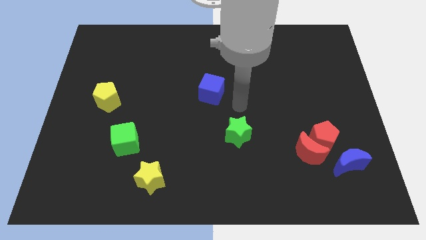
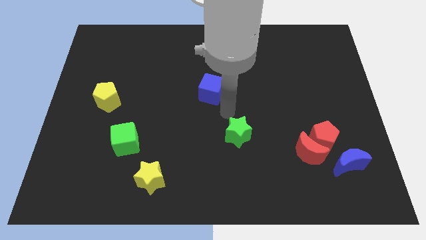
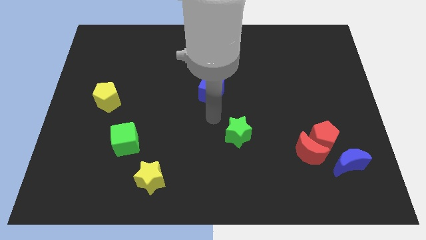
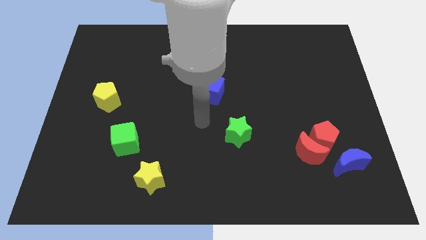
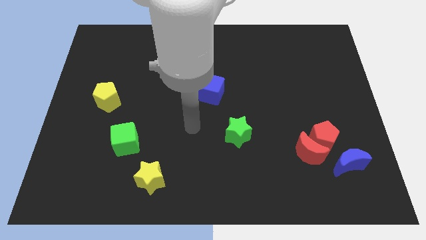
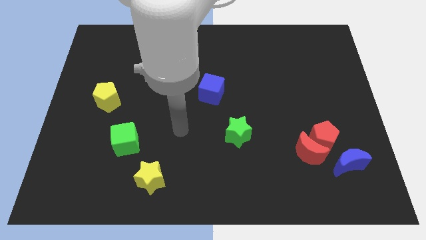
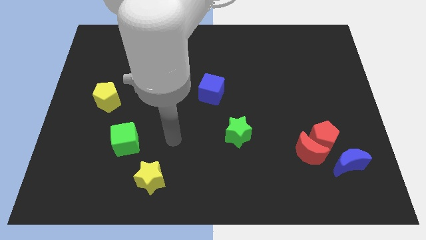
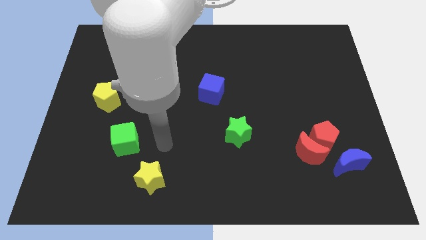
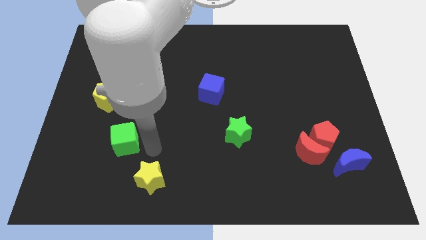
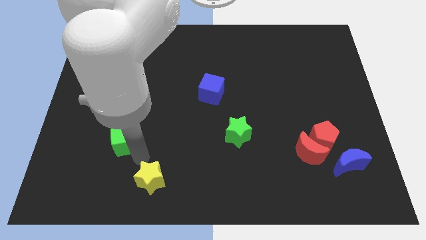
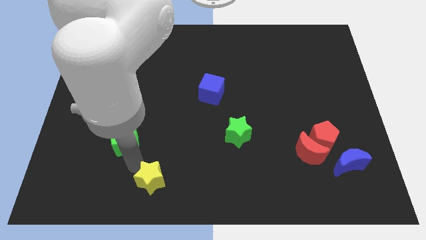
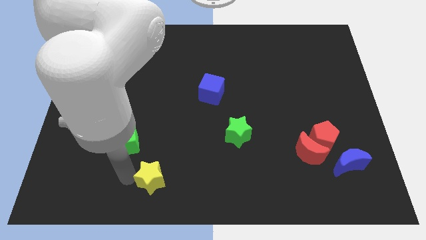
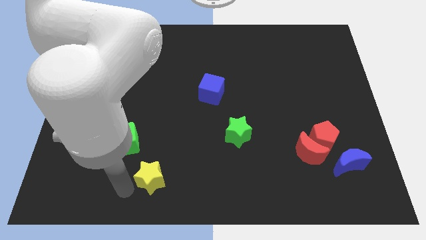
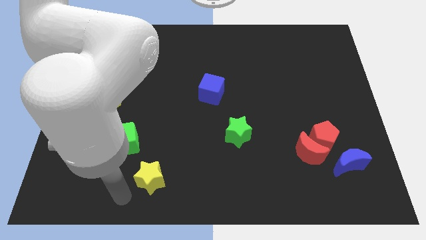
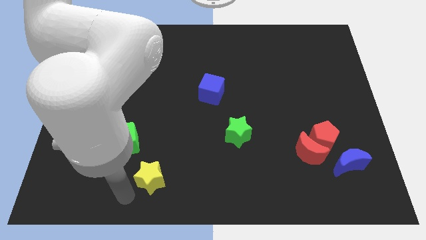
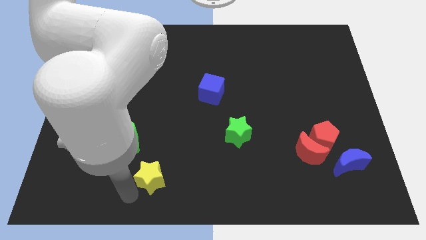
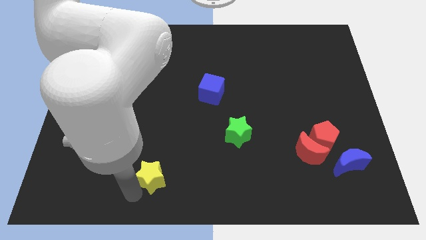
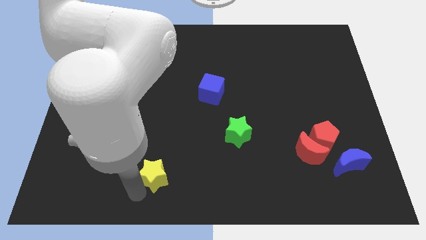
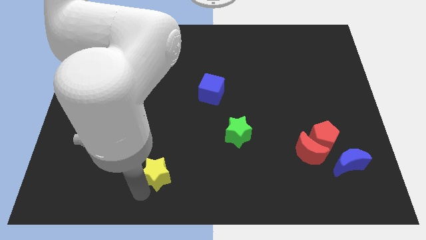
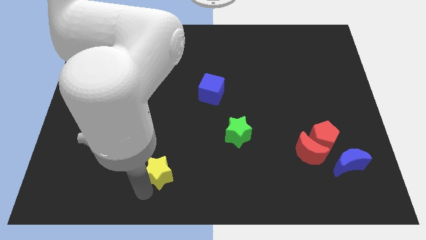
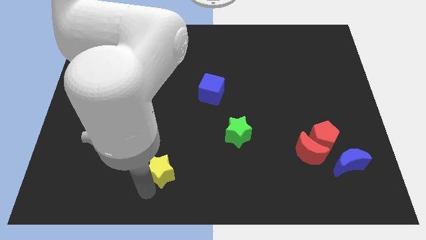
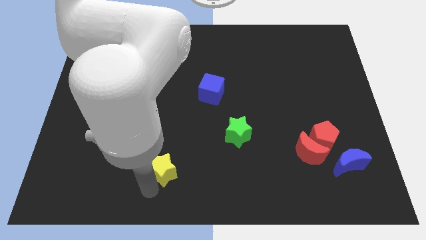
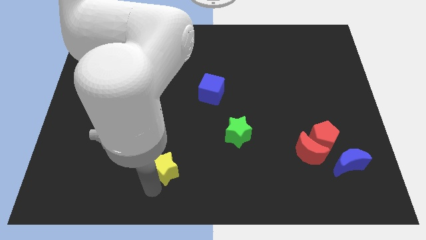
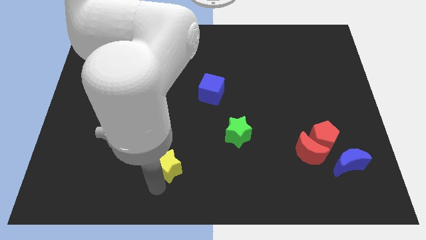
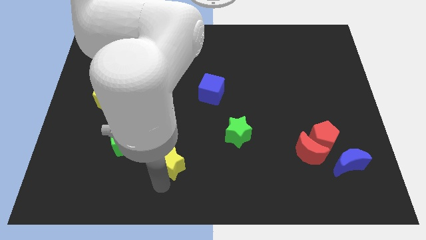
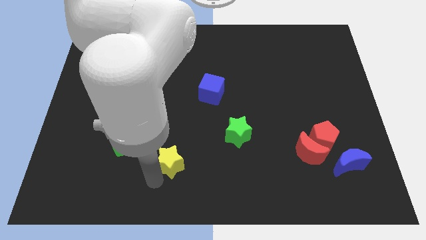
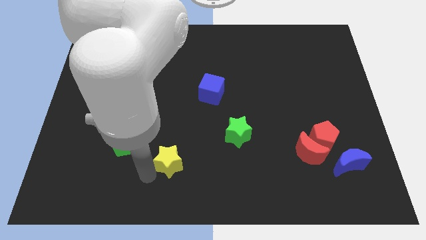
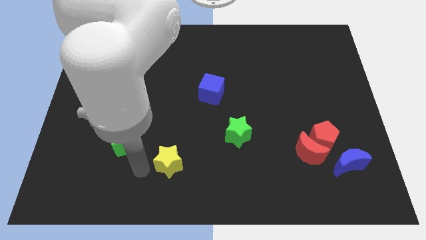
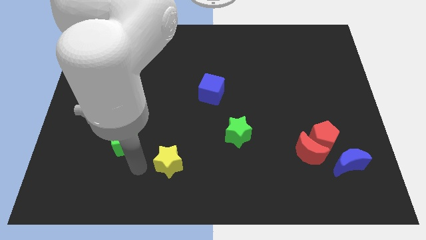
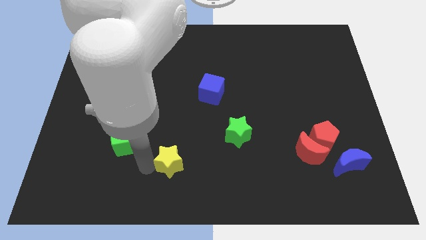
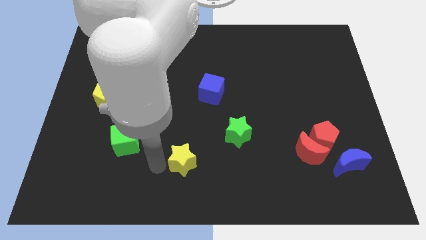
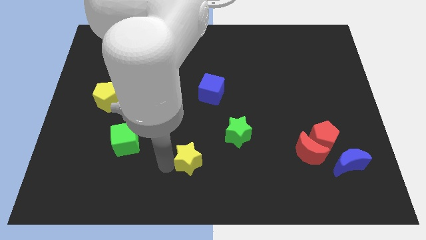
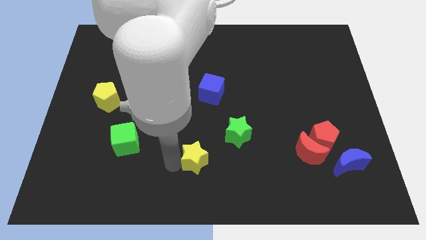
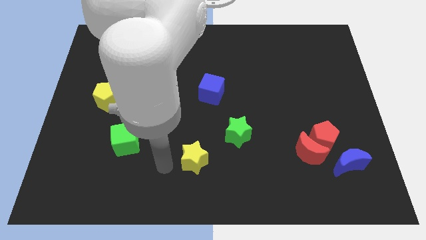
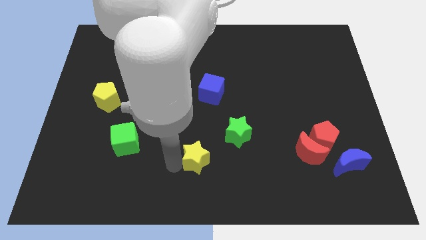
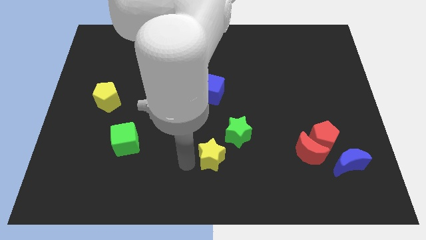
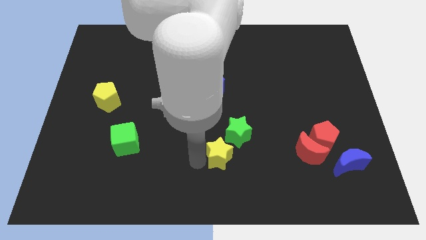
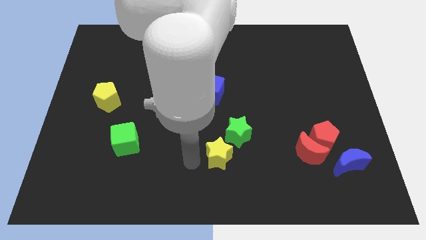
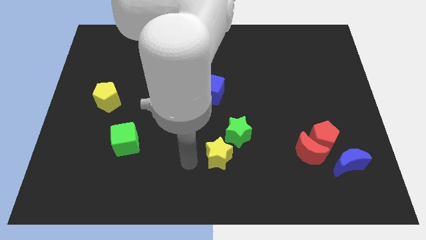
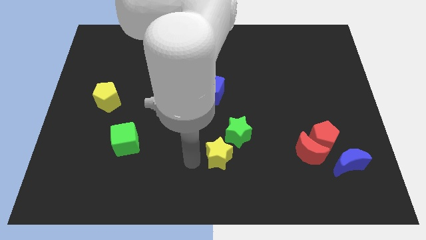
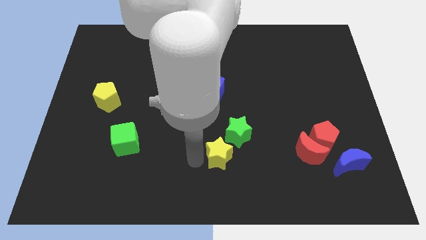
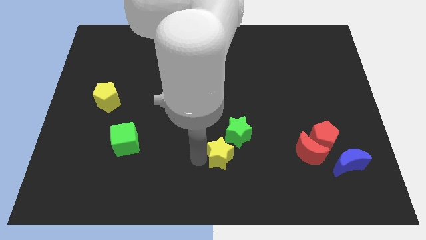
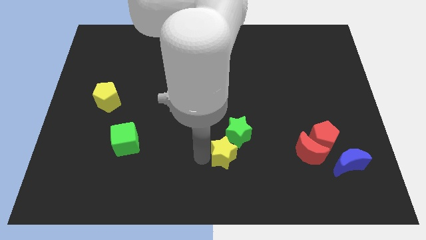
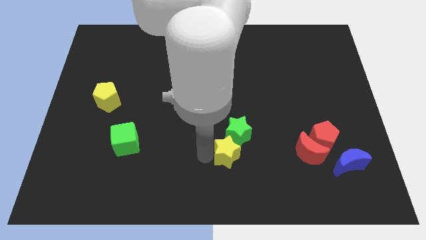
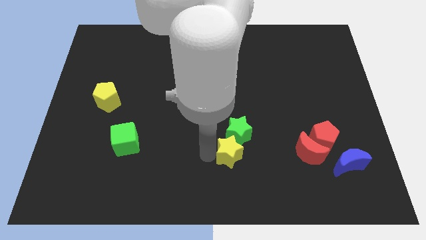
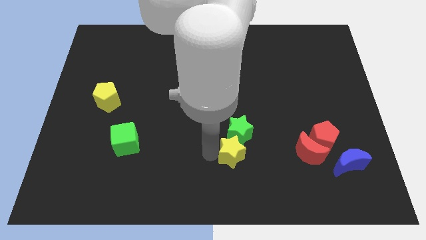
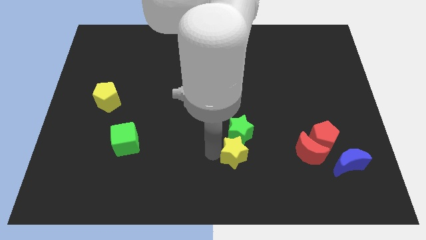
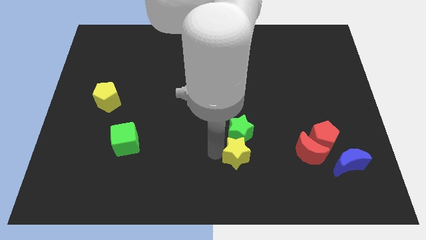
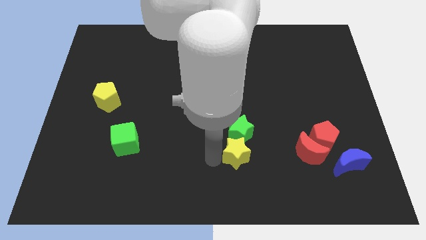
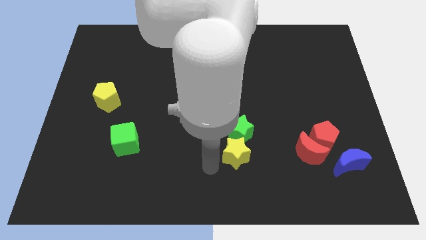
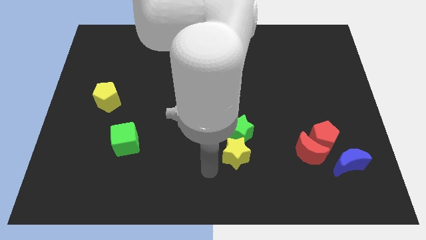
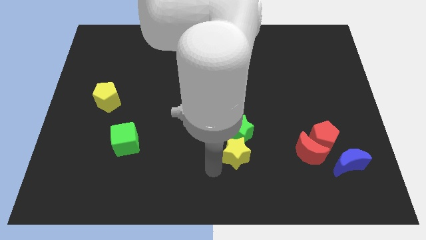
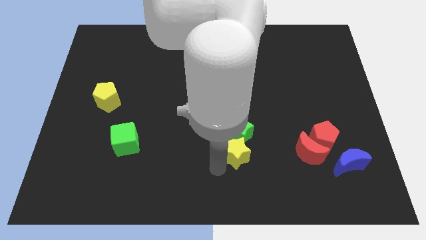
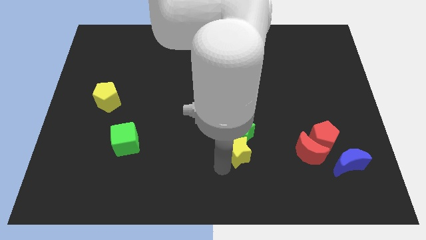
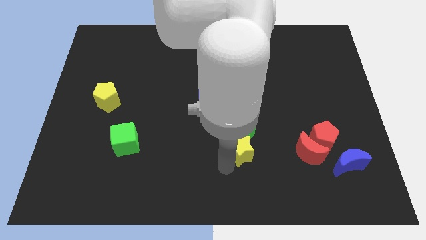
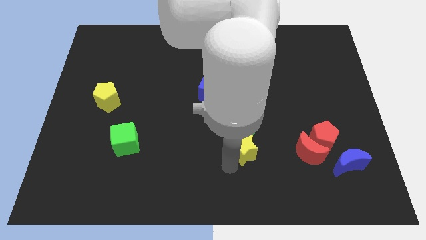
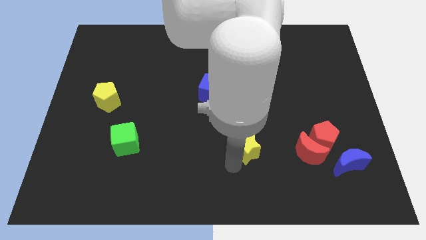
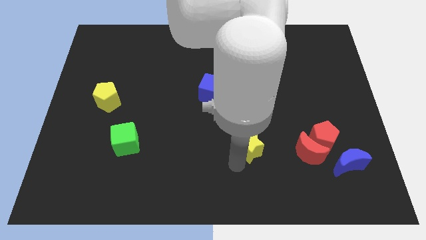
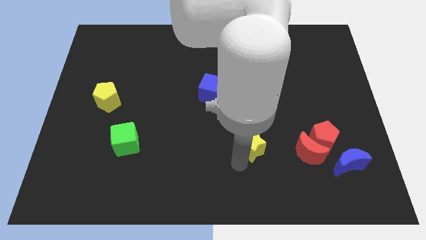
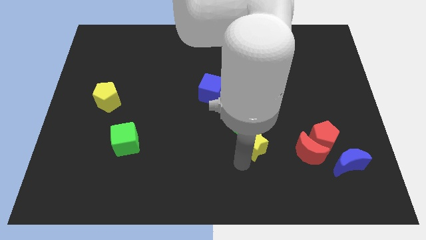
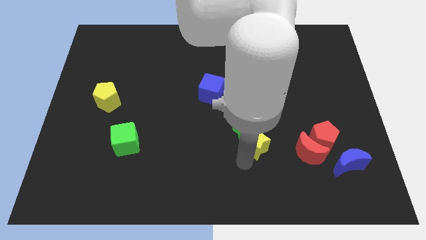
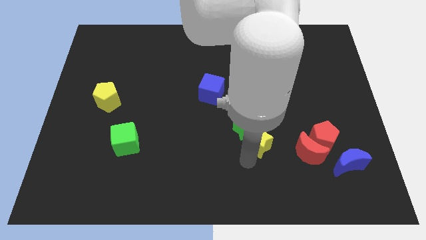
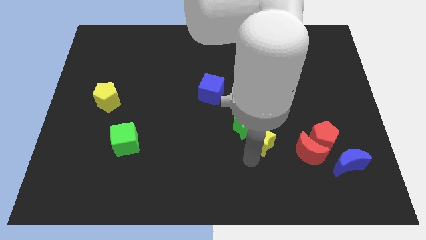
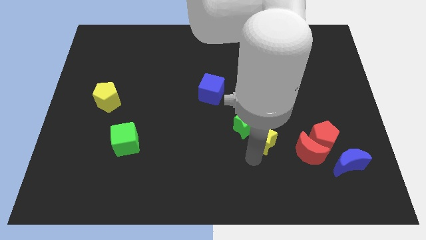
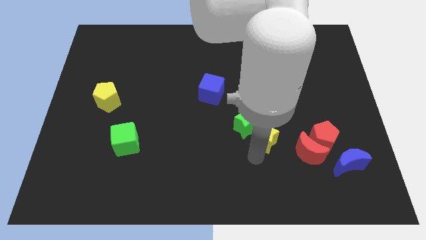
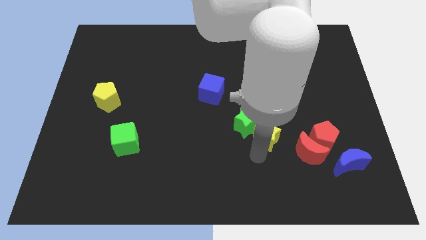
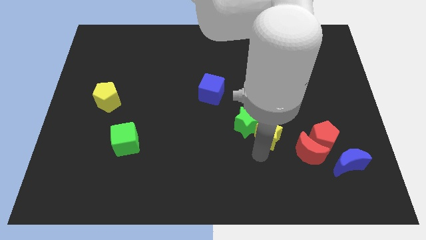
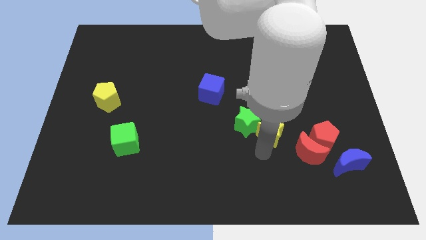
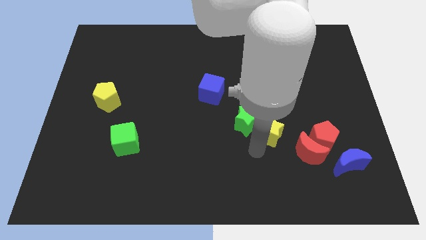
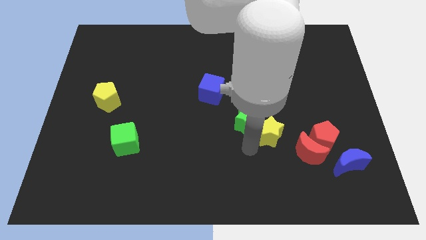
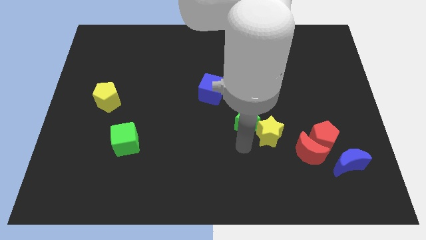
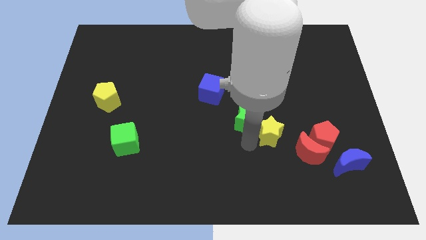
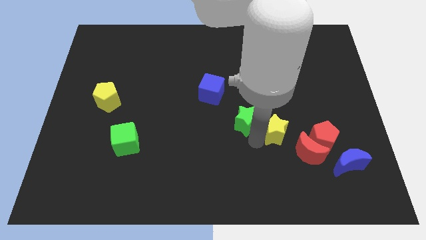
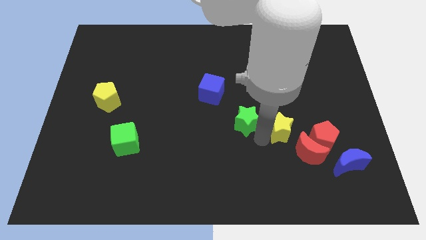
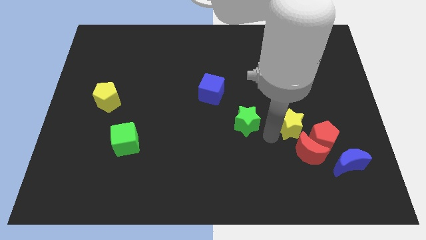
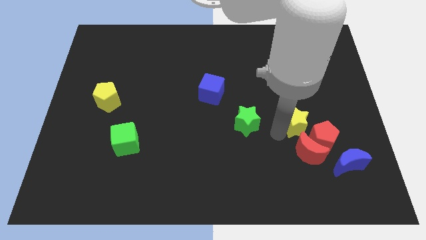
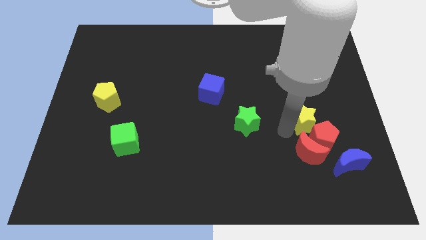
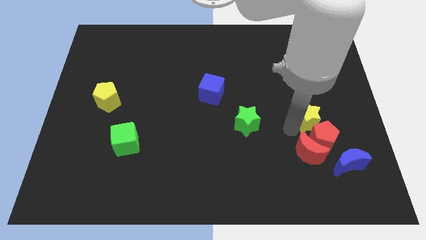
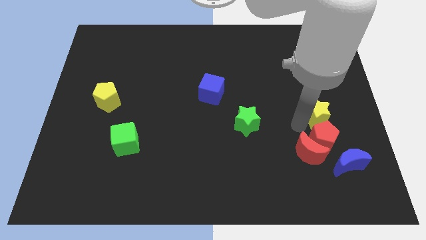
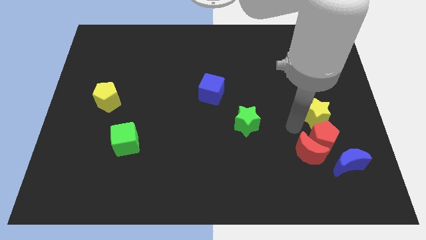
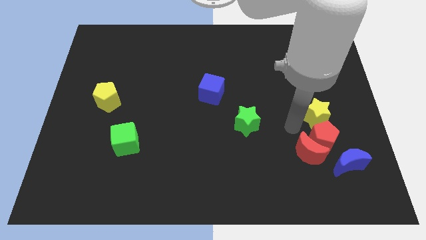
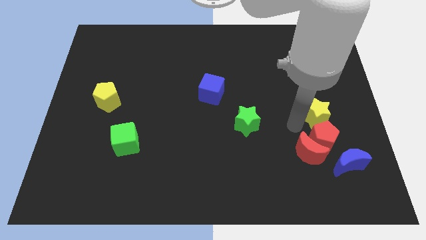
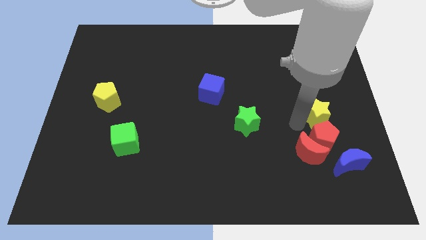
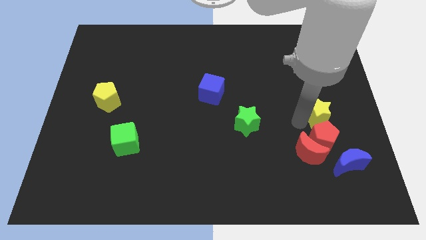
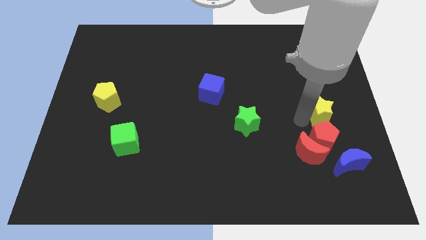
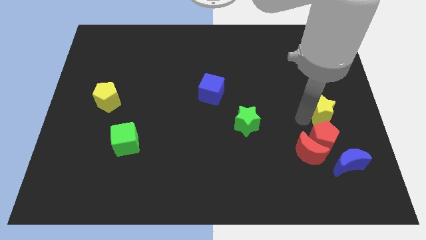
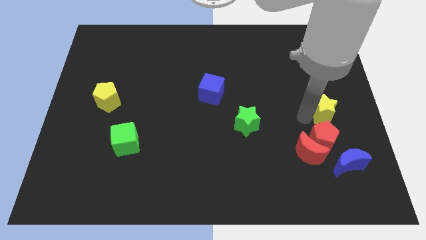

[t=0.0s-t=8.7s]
put the yellow star to the right side
